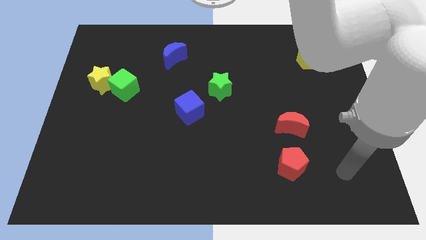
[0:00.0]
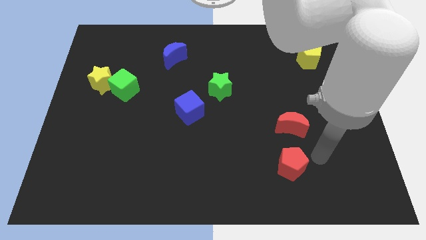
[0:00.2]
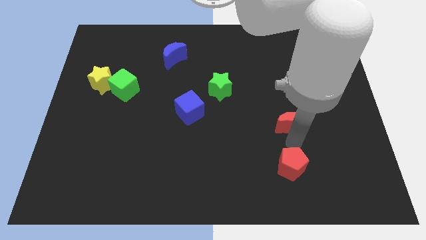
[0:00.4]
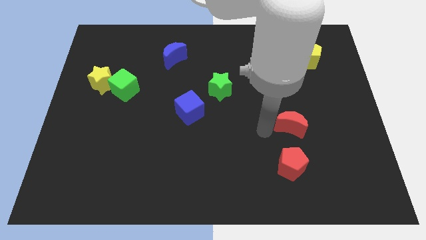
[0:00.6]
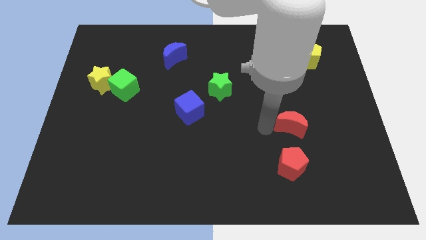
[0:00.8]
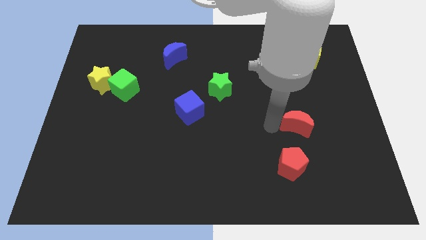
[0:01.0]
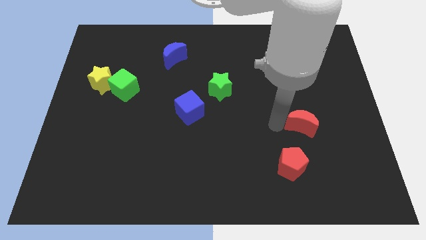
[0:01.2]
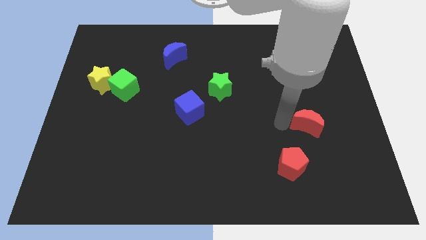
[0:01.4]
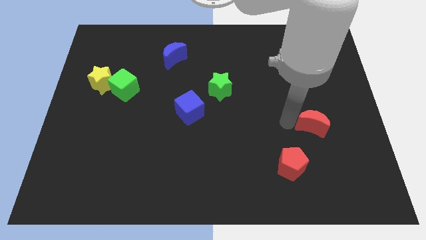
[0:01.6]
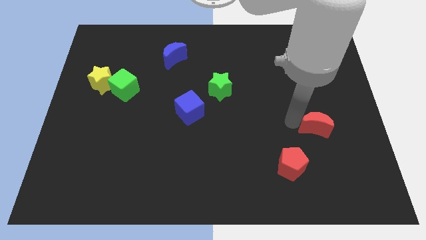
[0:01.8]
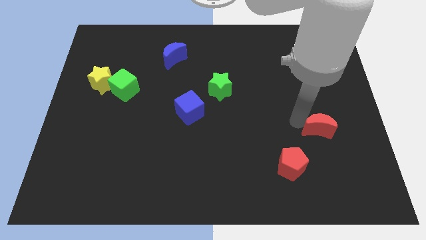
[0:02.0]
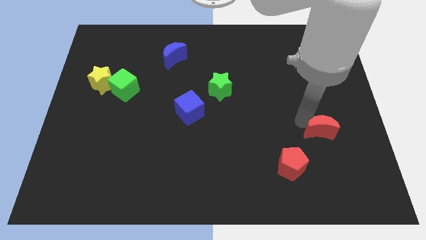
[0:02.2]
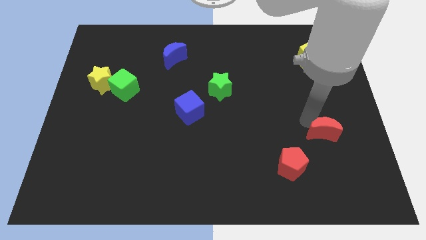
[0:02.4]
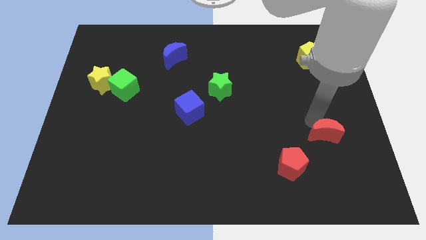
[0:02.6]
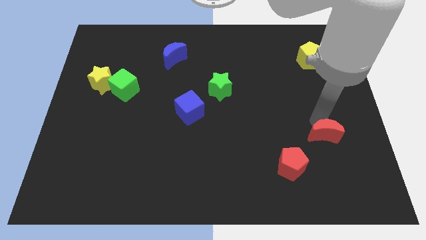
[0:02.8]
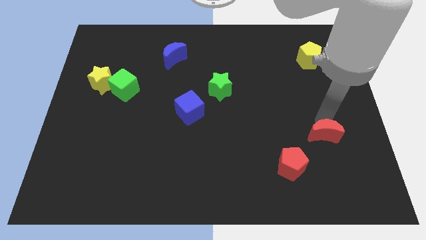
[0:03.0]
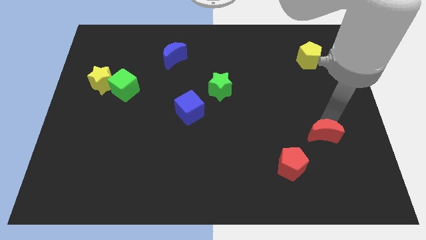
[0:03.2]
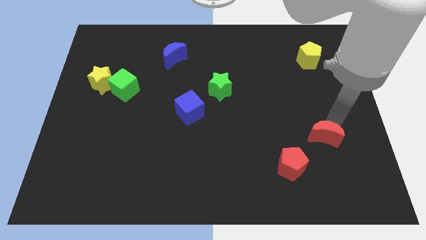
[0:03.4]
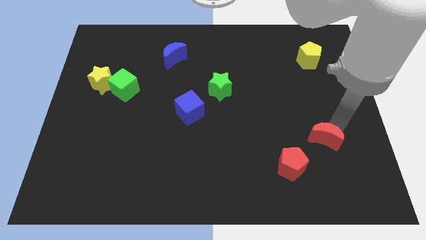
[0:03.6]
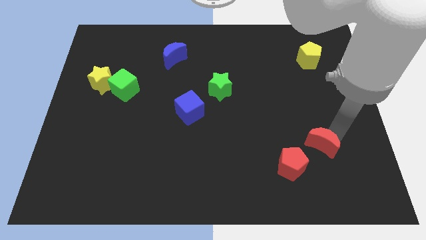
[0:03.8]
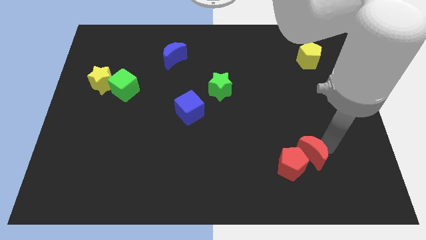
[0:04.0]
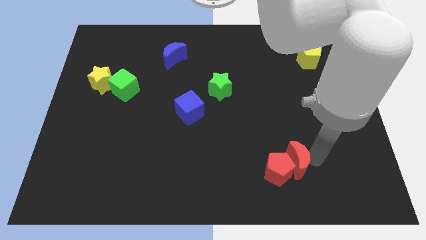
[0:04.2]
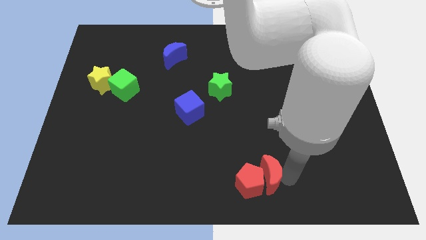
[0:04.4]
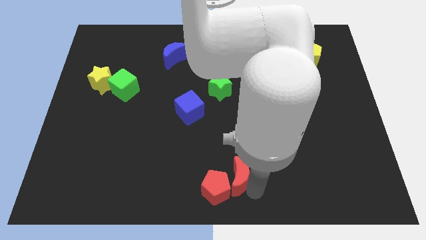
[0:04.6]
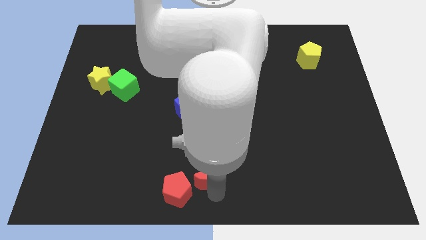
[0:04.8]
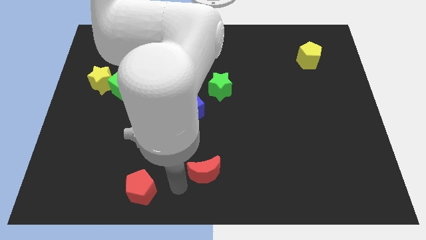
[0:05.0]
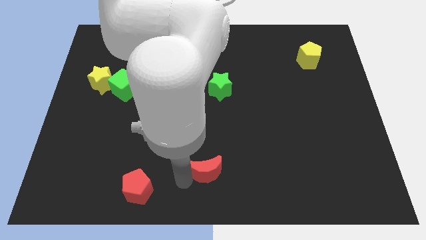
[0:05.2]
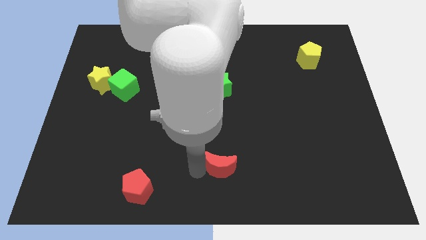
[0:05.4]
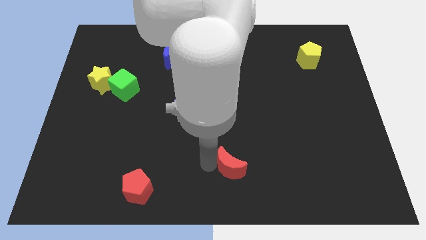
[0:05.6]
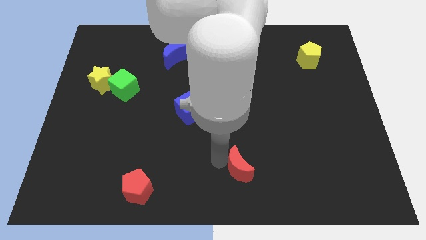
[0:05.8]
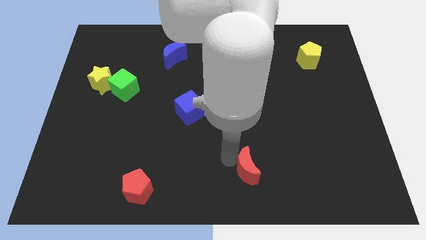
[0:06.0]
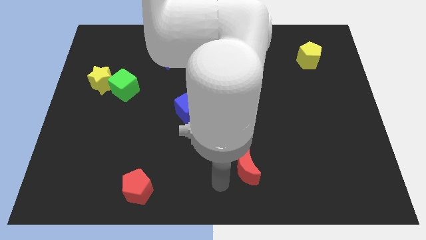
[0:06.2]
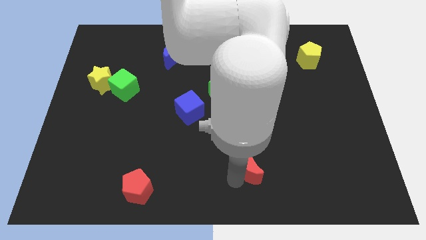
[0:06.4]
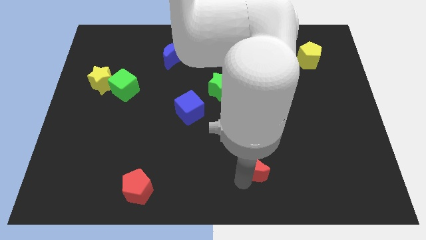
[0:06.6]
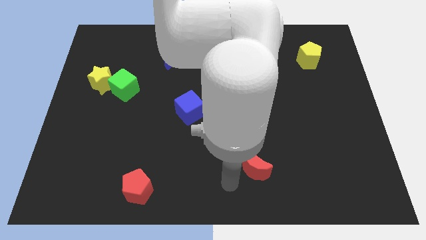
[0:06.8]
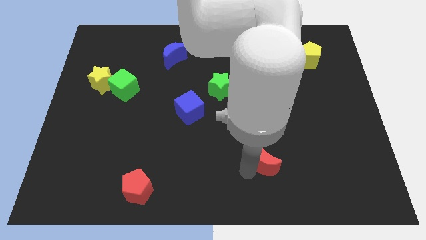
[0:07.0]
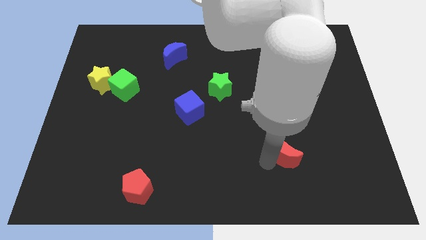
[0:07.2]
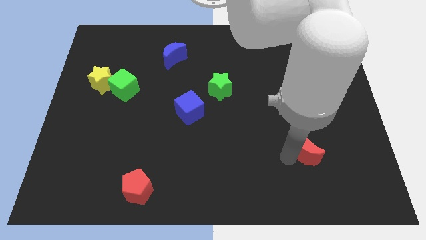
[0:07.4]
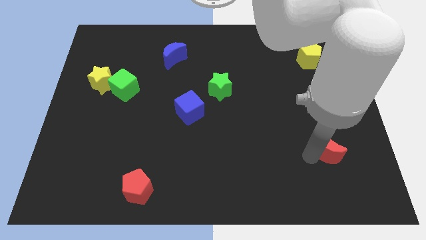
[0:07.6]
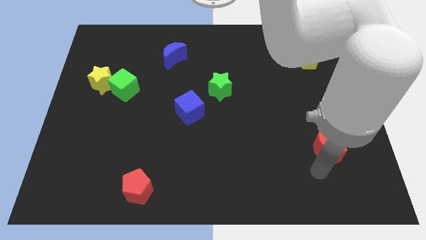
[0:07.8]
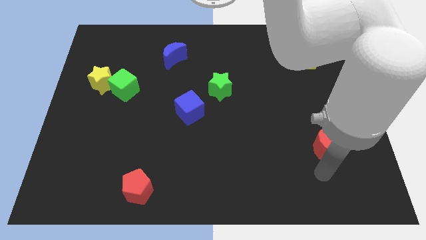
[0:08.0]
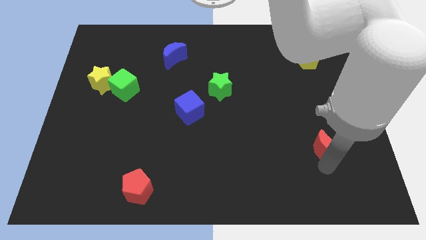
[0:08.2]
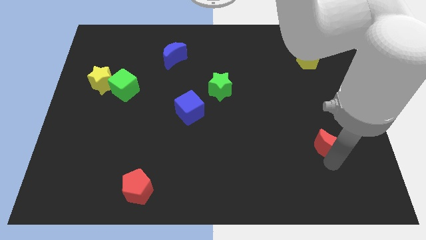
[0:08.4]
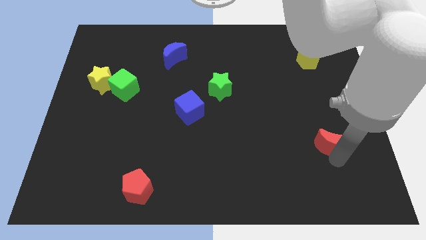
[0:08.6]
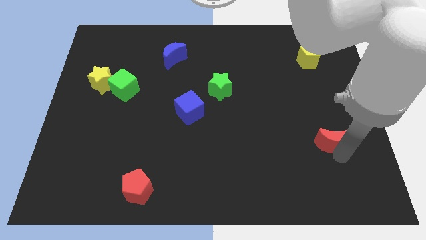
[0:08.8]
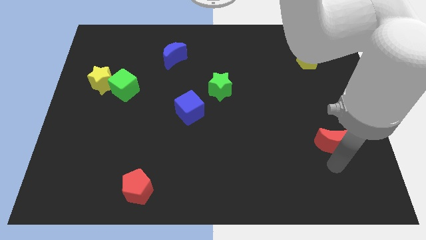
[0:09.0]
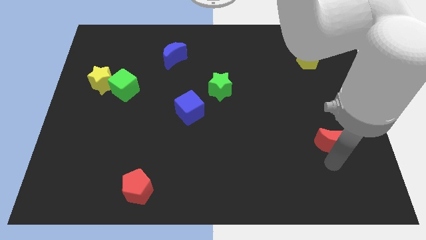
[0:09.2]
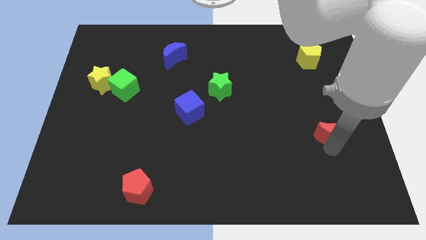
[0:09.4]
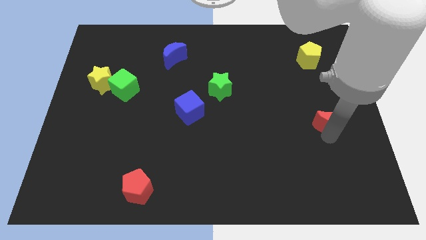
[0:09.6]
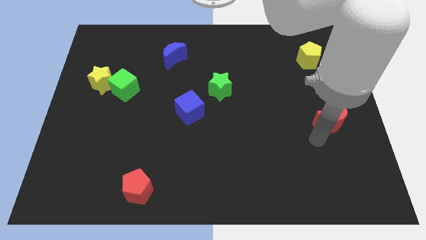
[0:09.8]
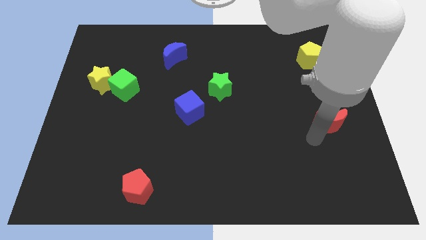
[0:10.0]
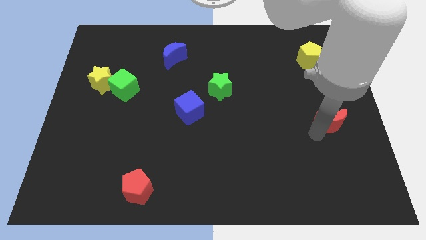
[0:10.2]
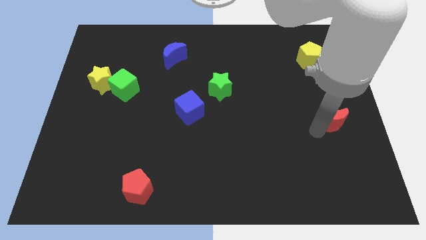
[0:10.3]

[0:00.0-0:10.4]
move the red moon to the right side

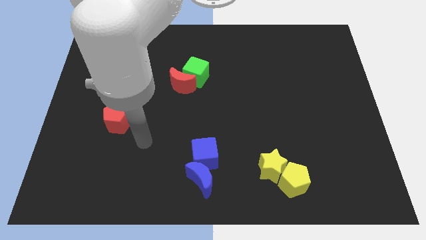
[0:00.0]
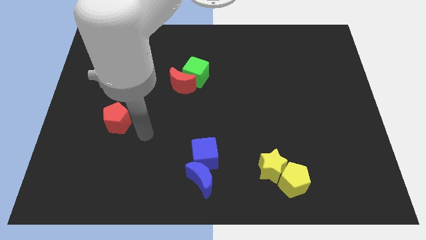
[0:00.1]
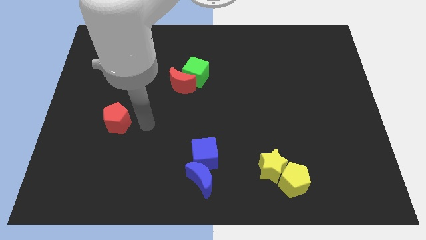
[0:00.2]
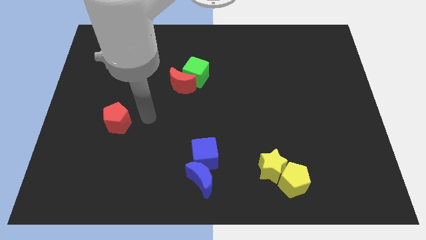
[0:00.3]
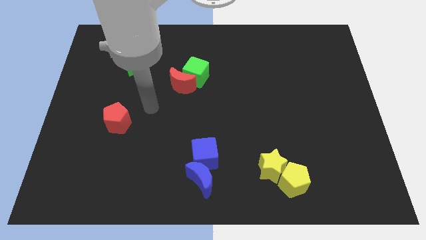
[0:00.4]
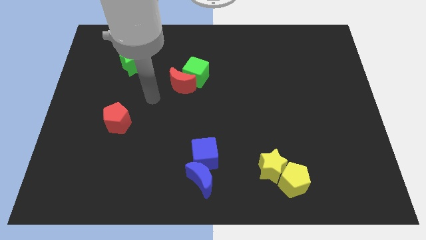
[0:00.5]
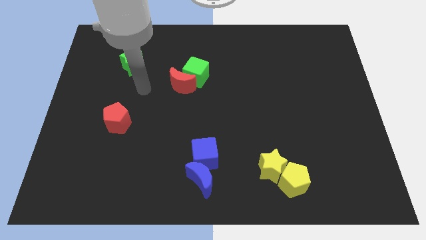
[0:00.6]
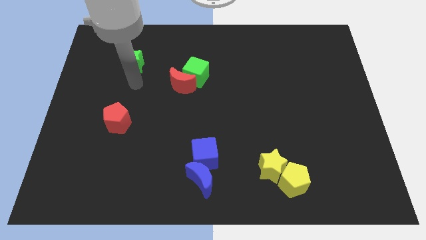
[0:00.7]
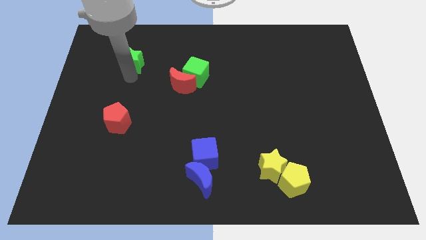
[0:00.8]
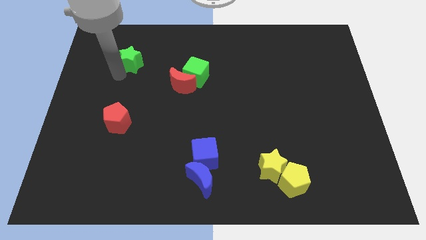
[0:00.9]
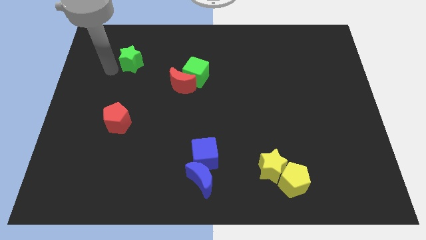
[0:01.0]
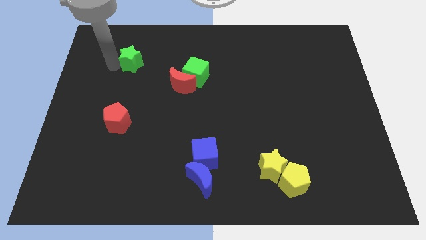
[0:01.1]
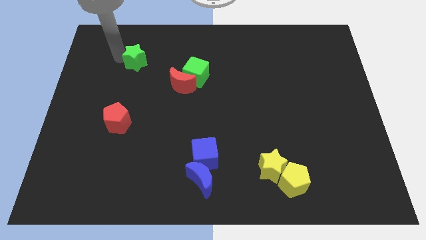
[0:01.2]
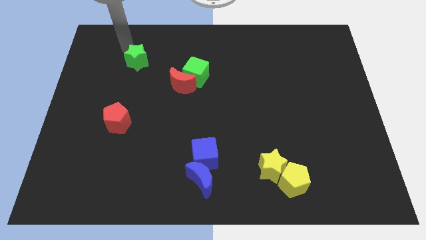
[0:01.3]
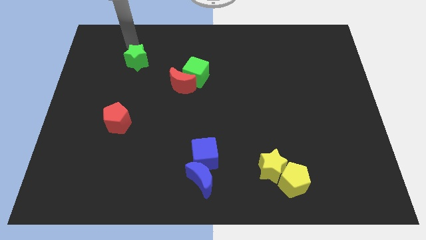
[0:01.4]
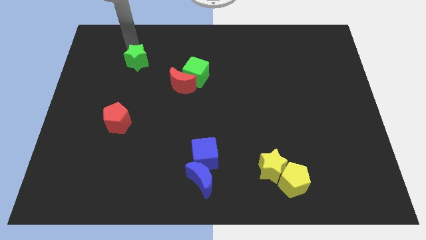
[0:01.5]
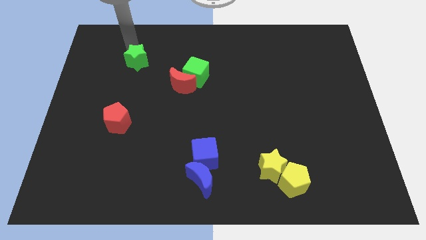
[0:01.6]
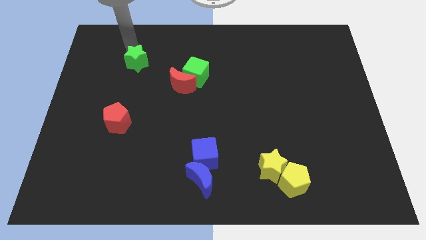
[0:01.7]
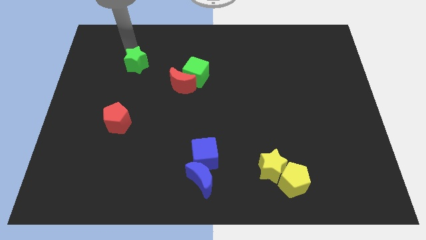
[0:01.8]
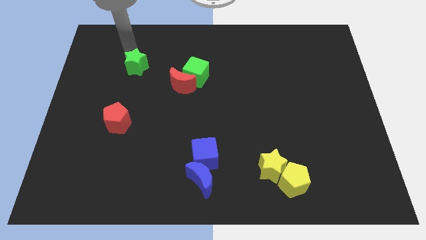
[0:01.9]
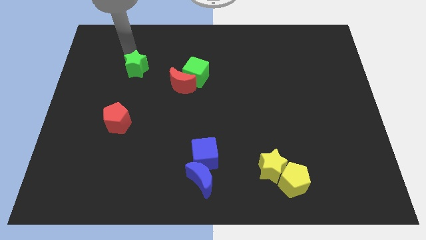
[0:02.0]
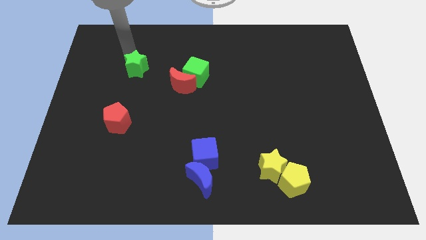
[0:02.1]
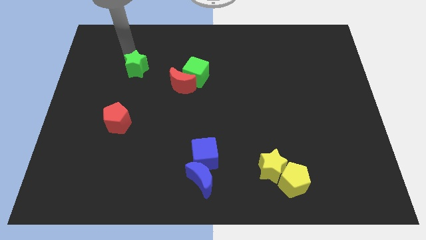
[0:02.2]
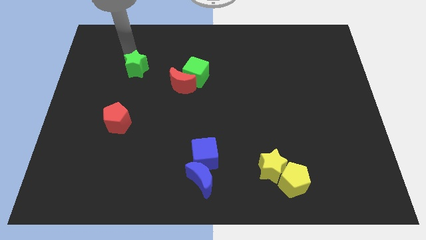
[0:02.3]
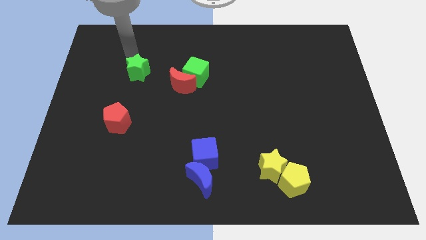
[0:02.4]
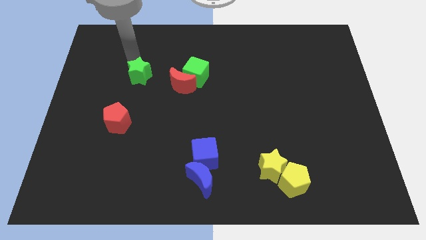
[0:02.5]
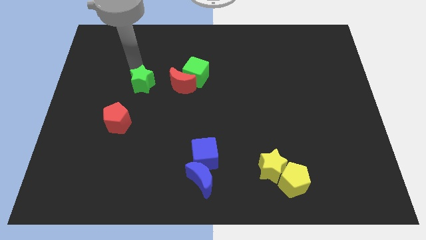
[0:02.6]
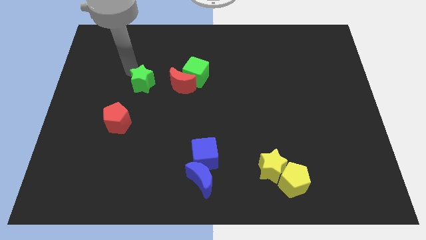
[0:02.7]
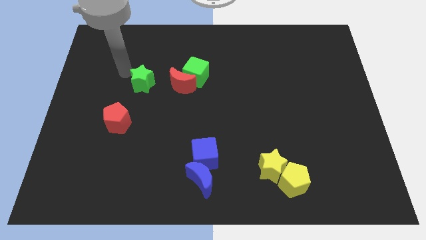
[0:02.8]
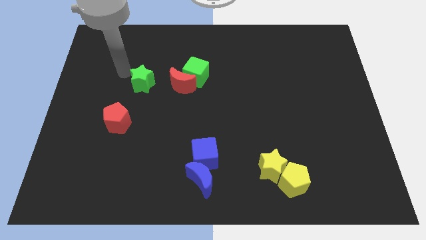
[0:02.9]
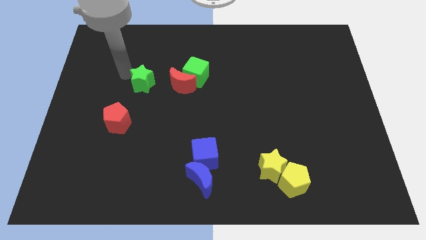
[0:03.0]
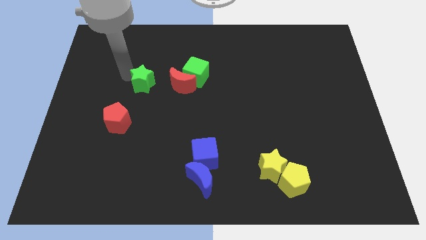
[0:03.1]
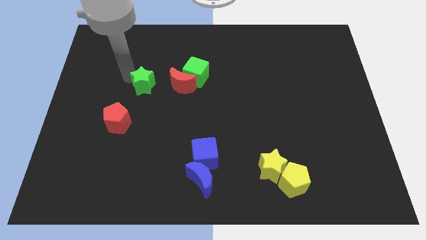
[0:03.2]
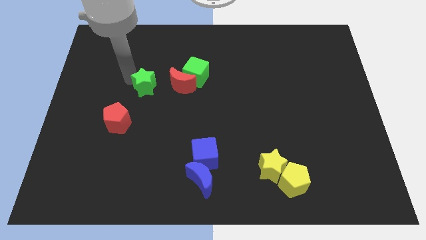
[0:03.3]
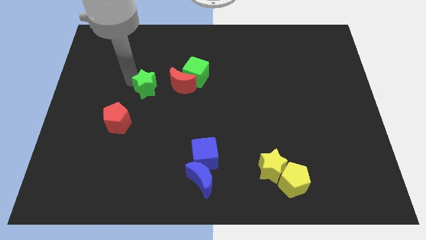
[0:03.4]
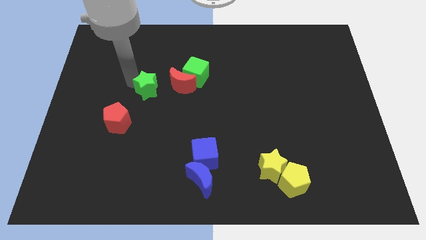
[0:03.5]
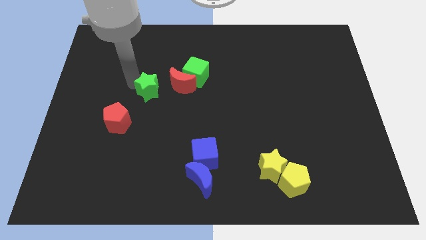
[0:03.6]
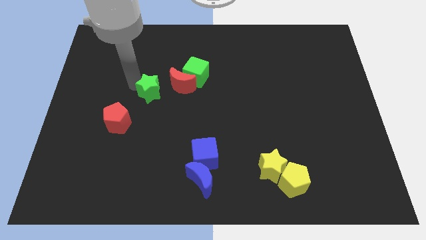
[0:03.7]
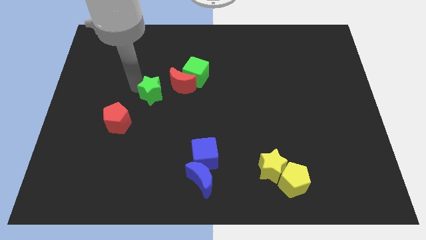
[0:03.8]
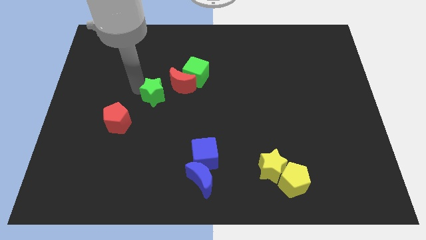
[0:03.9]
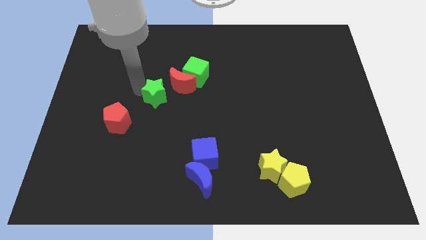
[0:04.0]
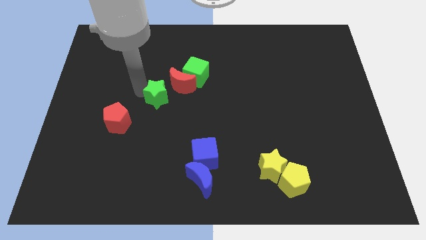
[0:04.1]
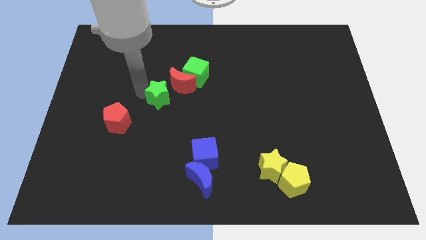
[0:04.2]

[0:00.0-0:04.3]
put the green star to the center of the board
